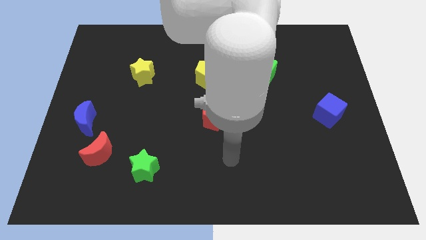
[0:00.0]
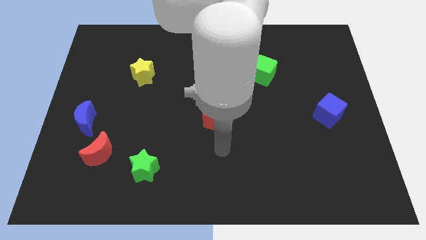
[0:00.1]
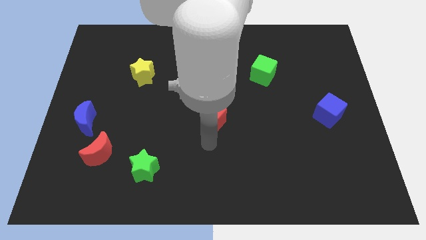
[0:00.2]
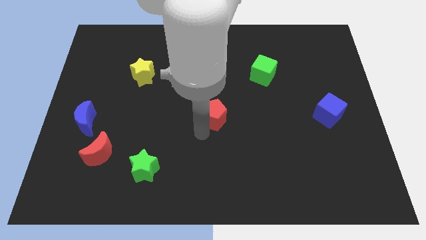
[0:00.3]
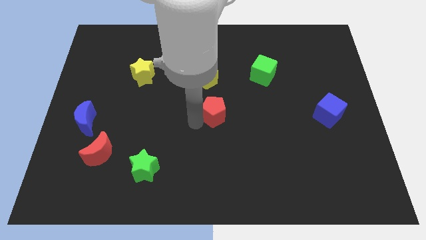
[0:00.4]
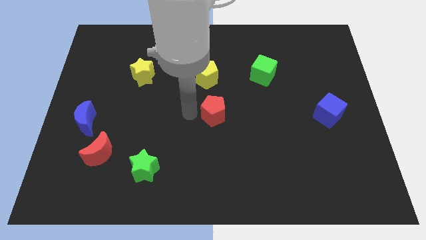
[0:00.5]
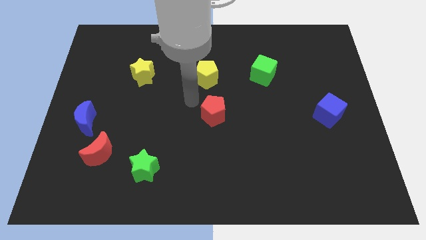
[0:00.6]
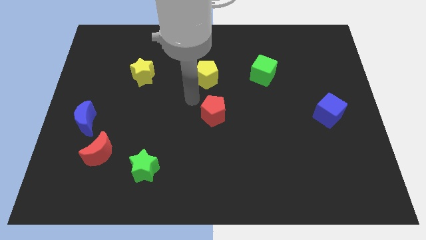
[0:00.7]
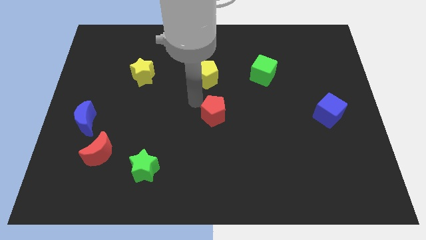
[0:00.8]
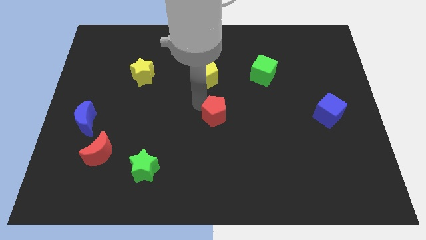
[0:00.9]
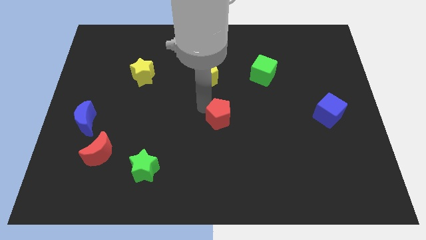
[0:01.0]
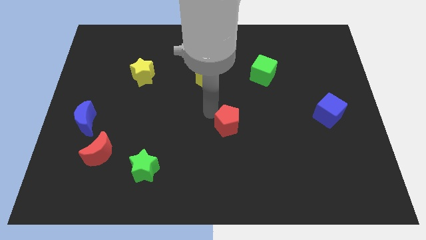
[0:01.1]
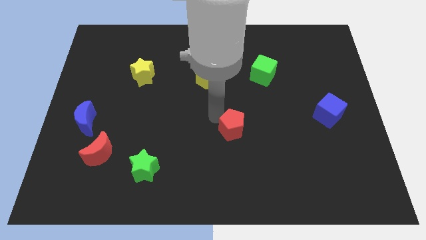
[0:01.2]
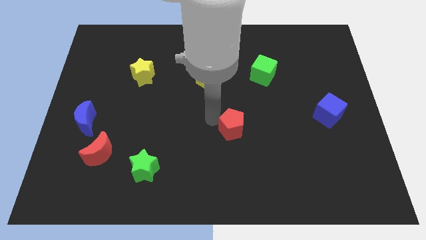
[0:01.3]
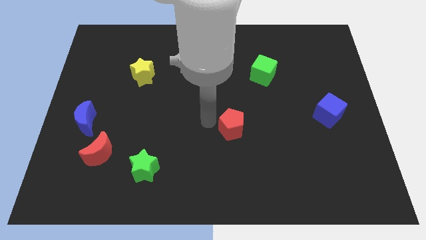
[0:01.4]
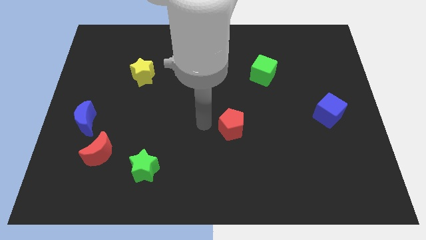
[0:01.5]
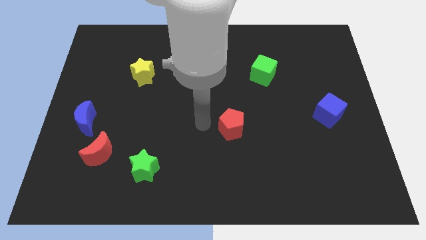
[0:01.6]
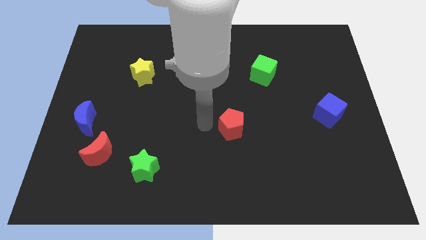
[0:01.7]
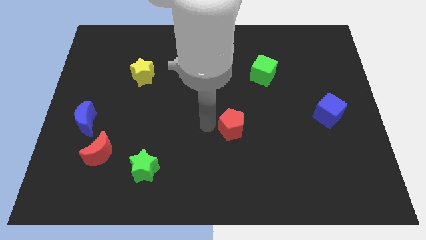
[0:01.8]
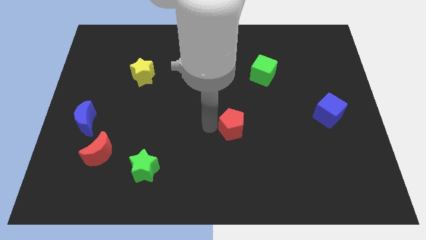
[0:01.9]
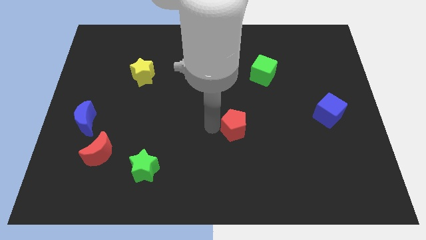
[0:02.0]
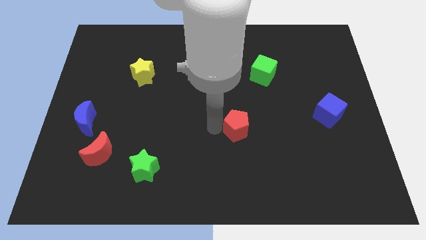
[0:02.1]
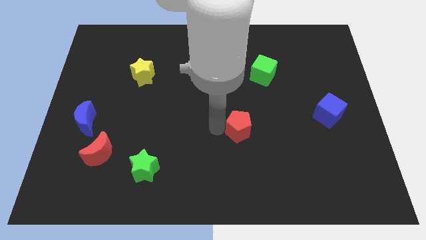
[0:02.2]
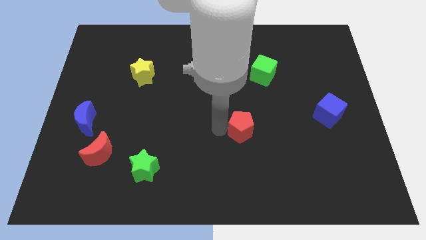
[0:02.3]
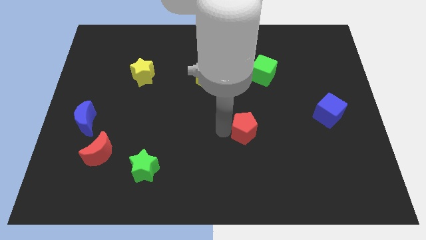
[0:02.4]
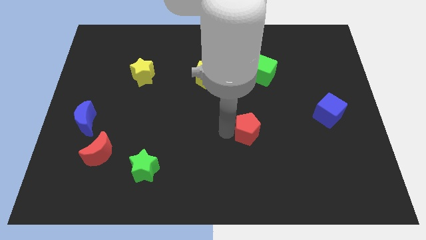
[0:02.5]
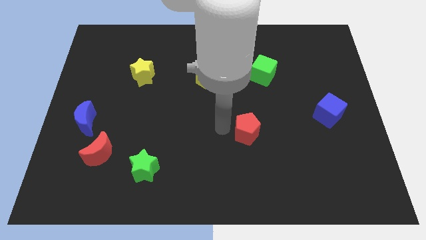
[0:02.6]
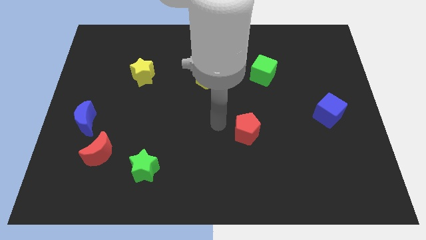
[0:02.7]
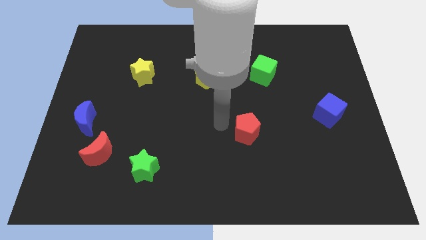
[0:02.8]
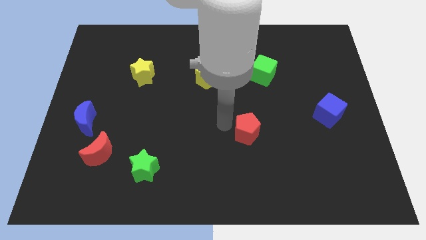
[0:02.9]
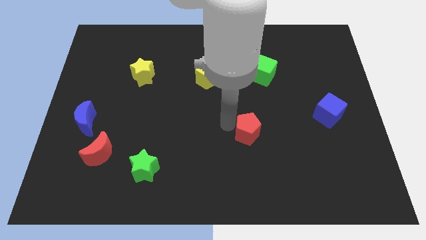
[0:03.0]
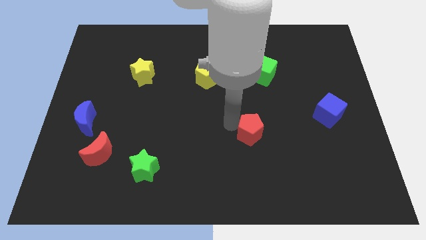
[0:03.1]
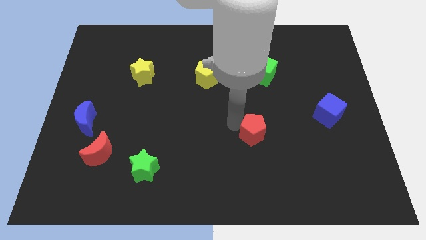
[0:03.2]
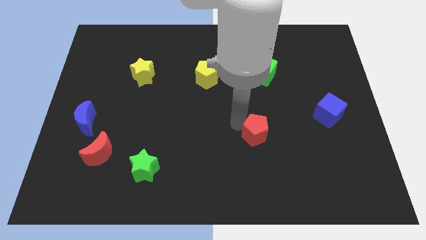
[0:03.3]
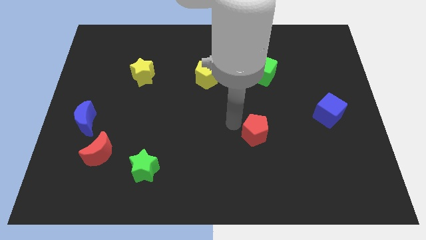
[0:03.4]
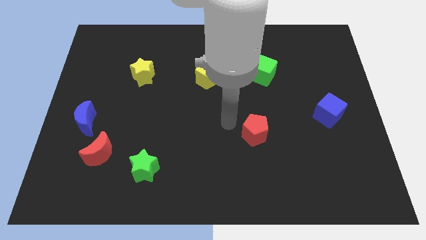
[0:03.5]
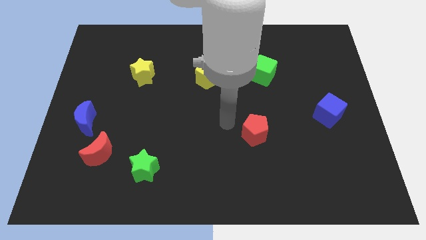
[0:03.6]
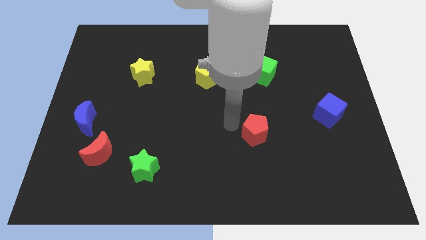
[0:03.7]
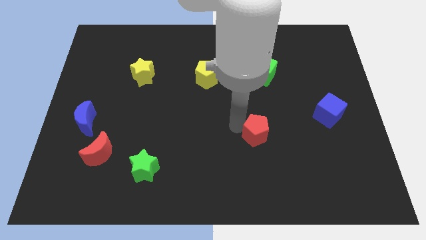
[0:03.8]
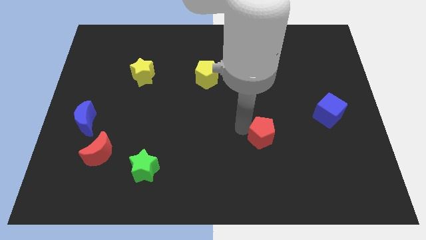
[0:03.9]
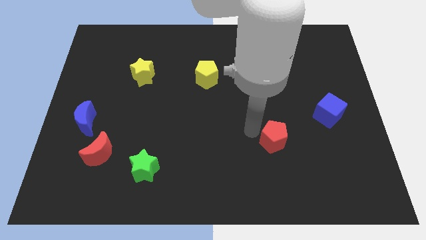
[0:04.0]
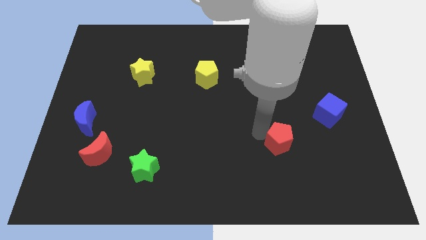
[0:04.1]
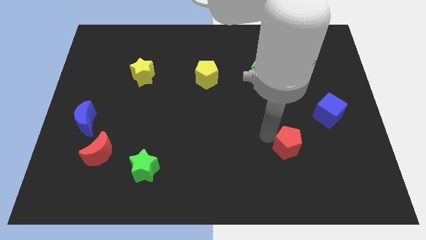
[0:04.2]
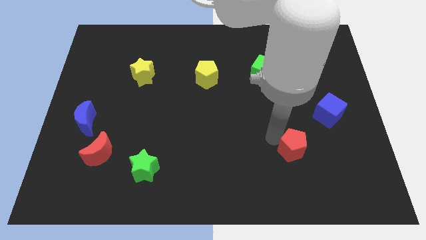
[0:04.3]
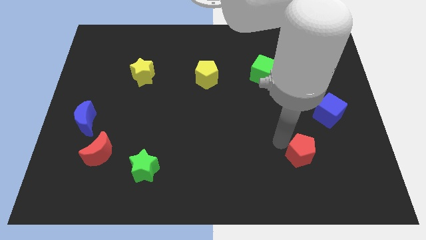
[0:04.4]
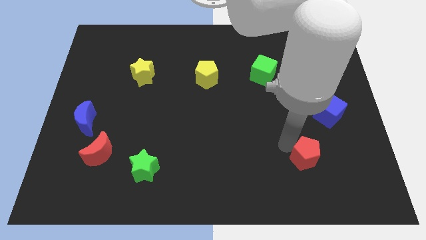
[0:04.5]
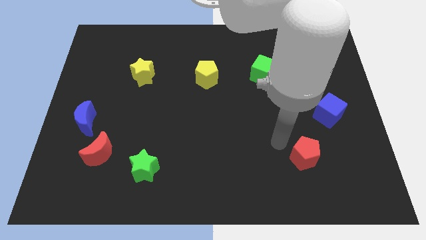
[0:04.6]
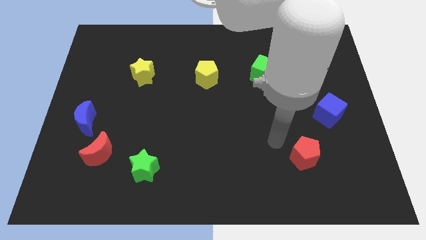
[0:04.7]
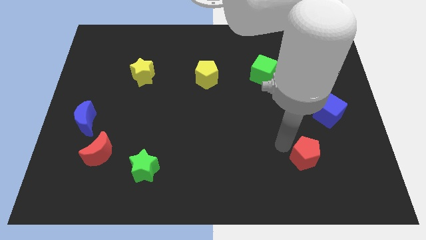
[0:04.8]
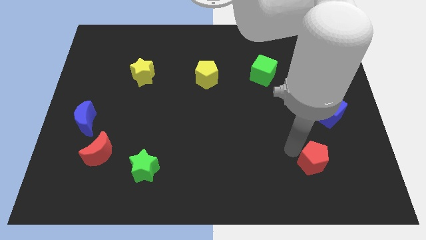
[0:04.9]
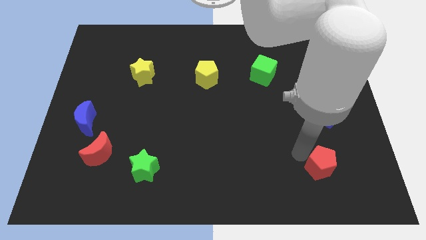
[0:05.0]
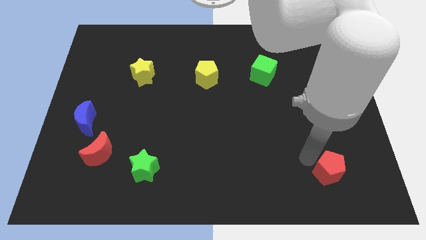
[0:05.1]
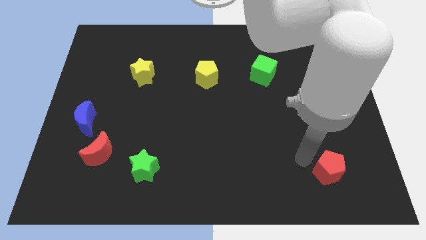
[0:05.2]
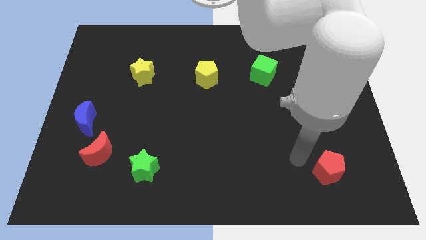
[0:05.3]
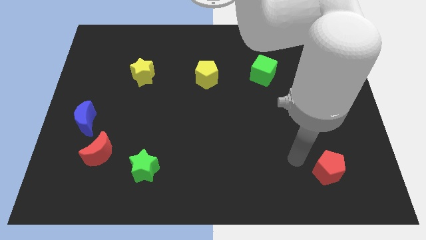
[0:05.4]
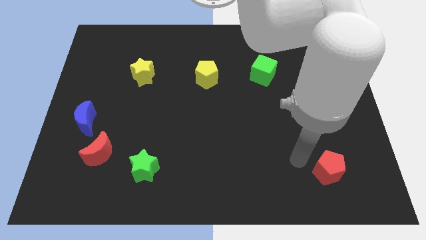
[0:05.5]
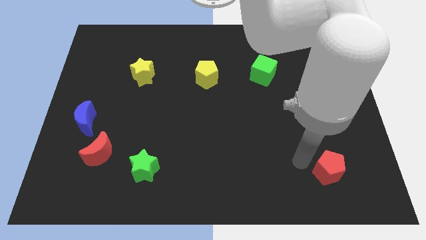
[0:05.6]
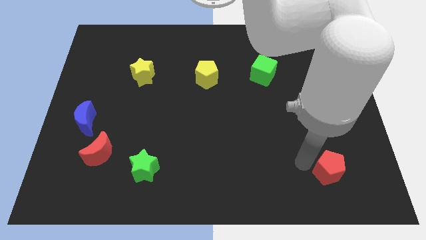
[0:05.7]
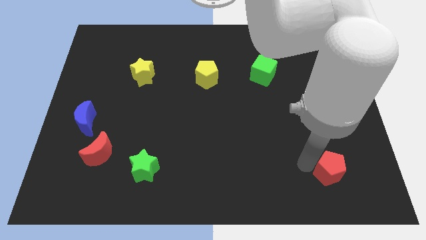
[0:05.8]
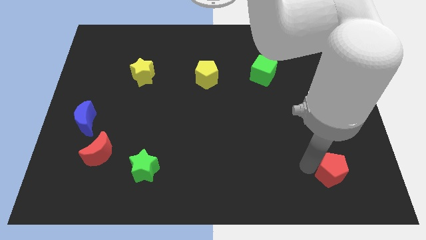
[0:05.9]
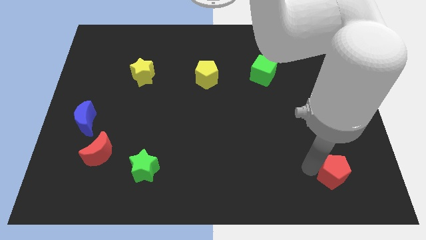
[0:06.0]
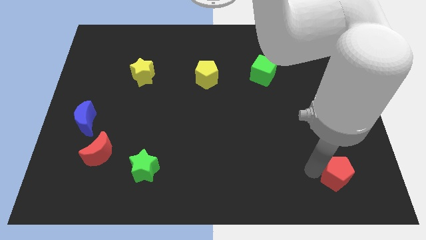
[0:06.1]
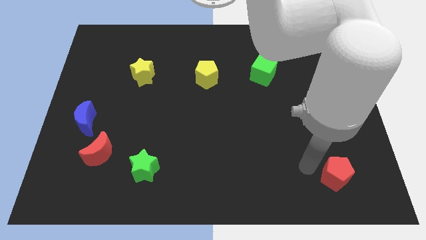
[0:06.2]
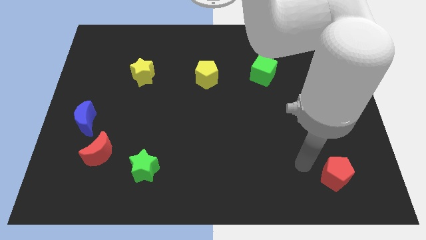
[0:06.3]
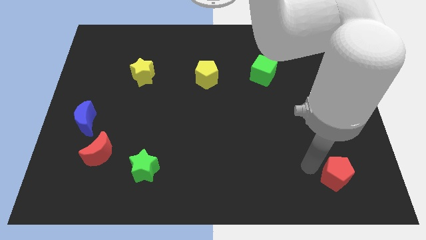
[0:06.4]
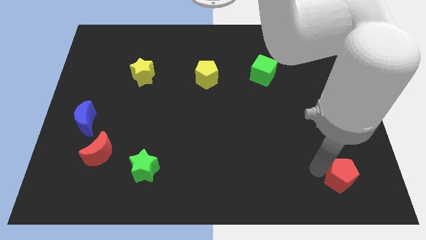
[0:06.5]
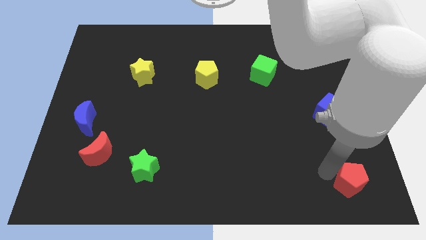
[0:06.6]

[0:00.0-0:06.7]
put the red pentagon to the bottom right of the board
